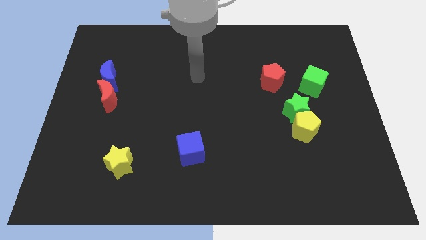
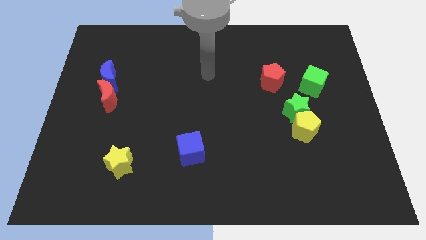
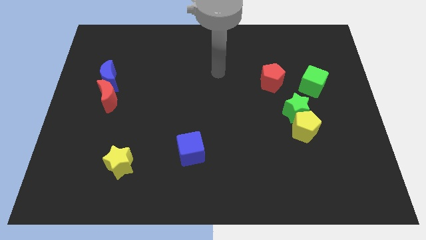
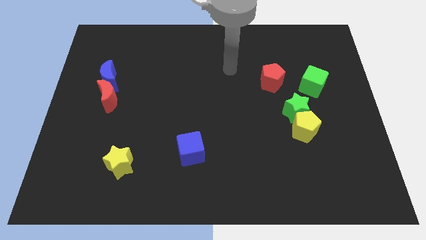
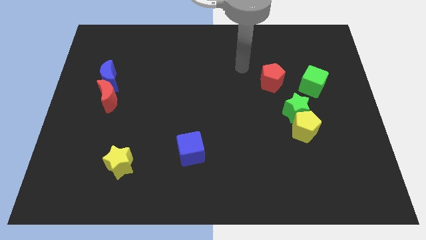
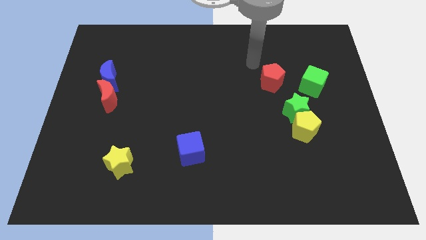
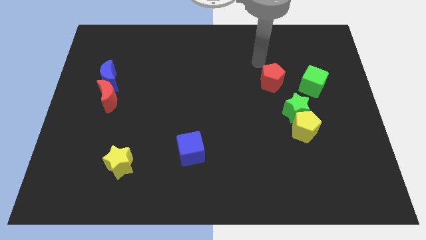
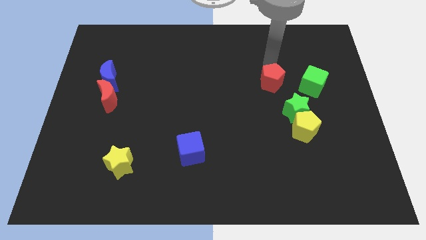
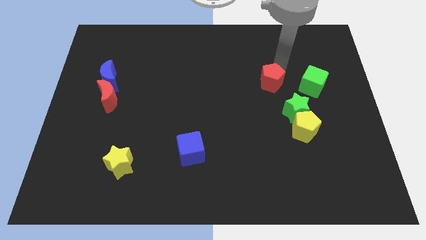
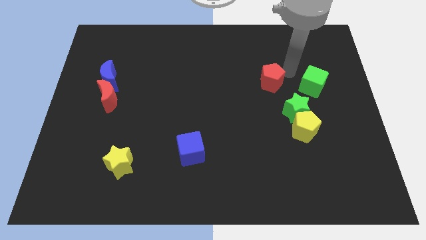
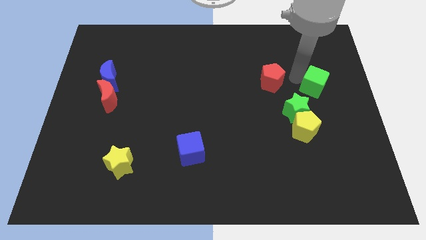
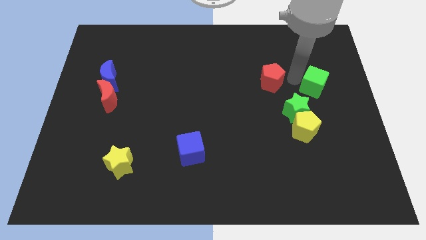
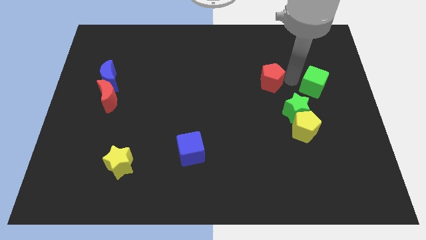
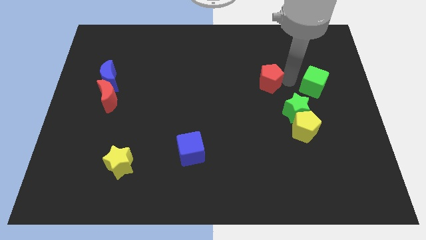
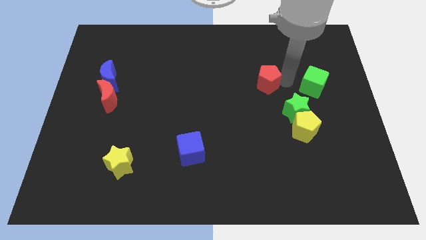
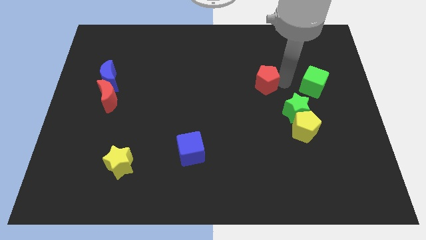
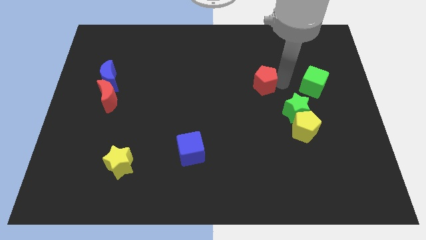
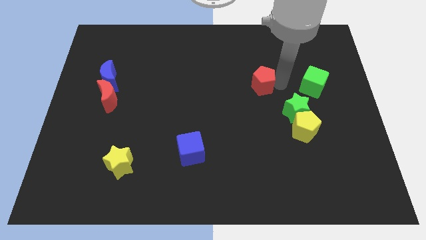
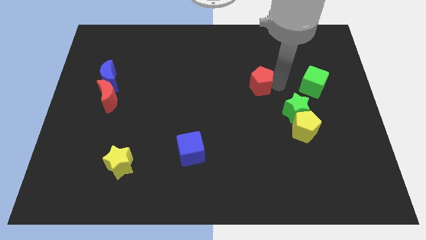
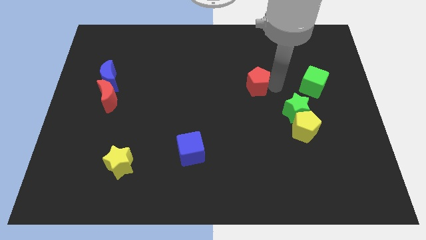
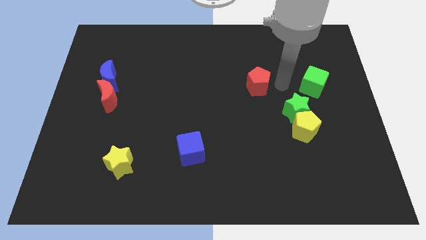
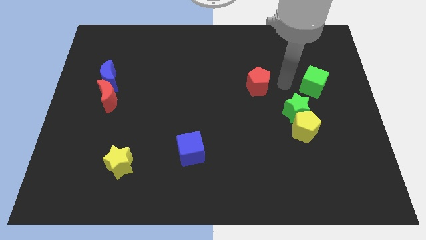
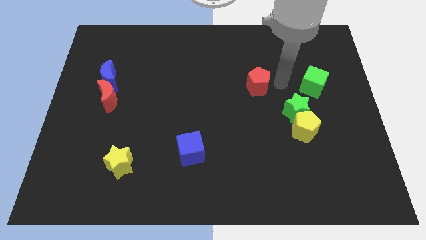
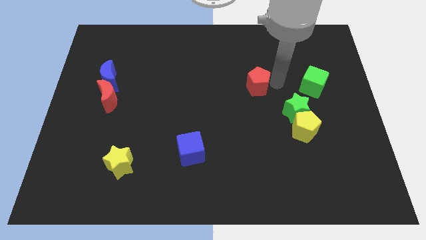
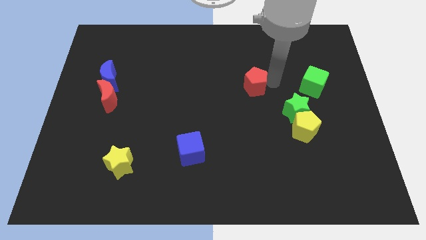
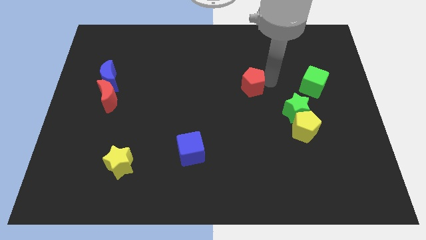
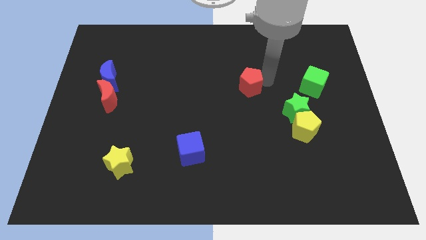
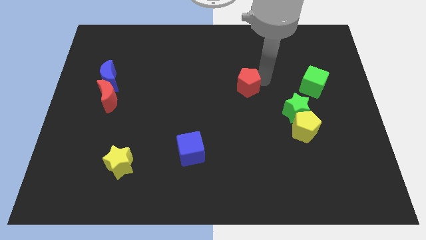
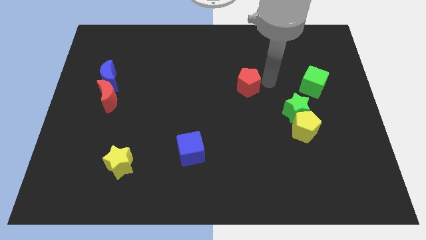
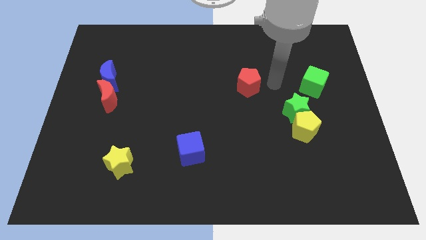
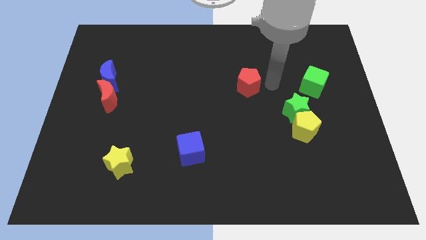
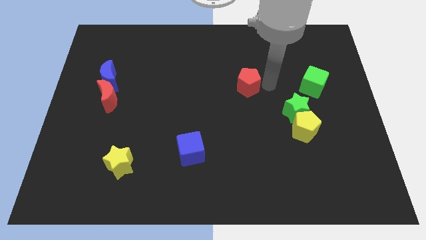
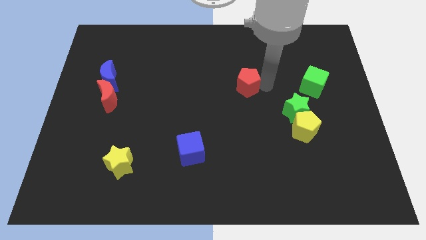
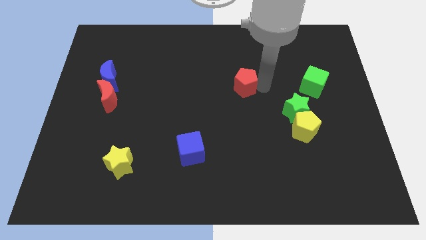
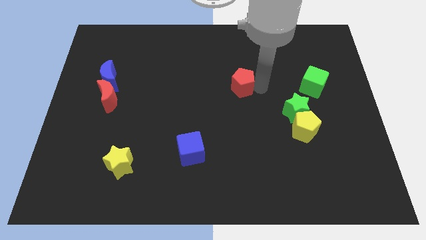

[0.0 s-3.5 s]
slightly push the red pentagon to the left

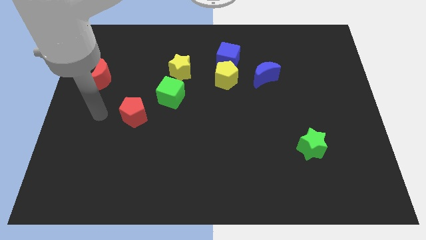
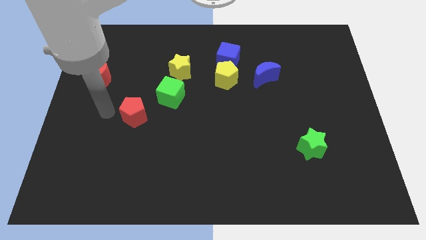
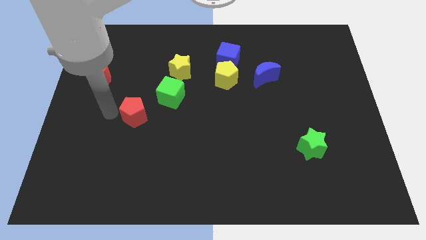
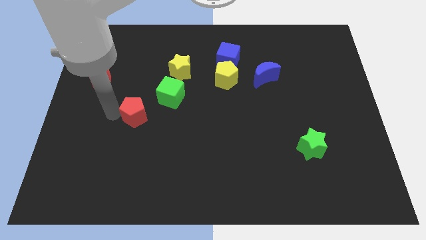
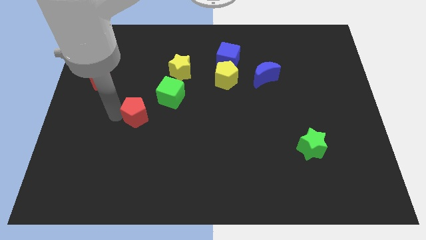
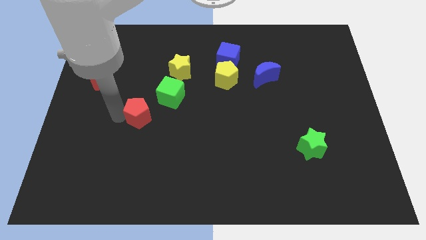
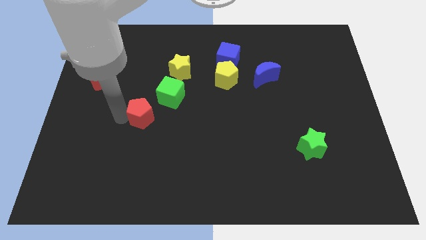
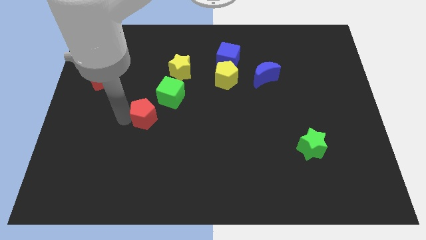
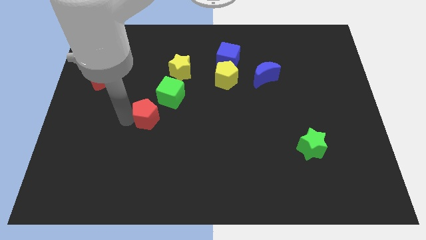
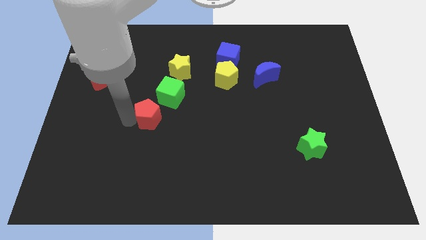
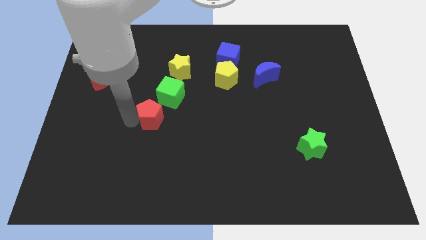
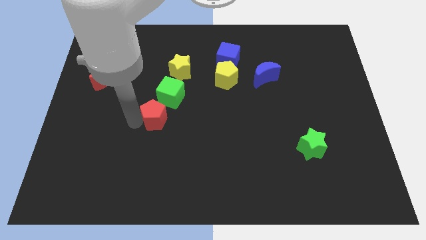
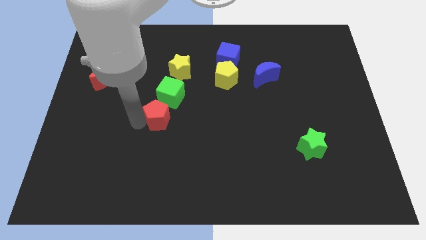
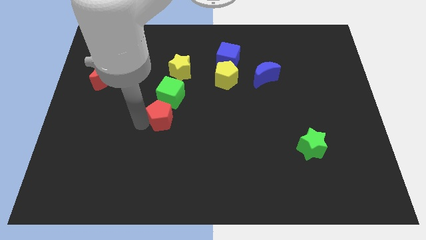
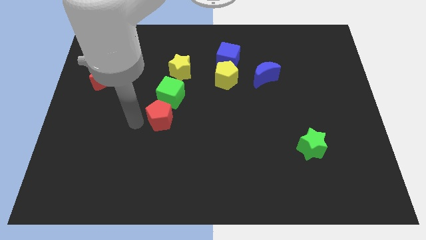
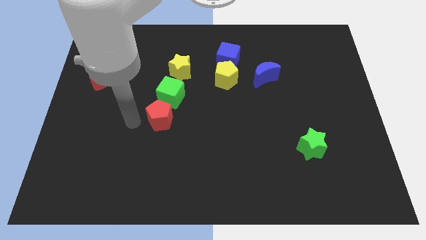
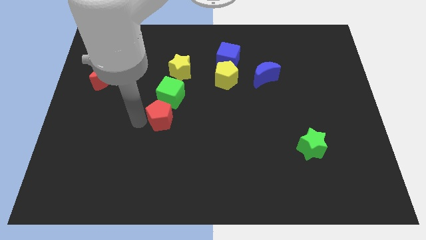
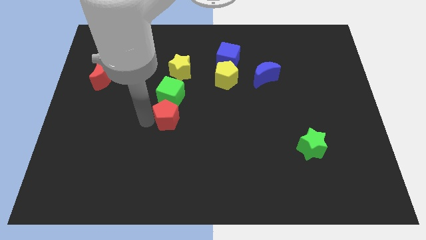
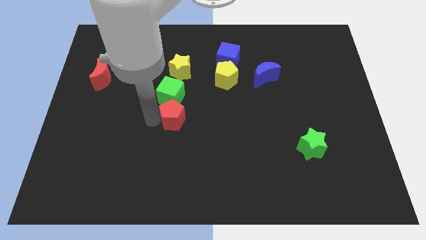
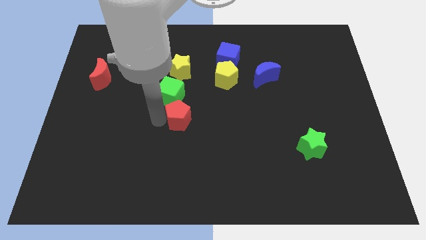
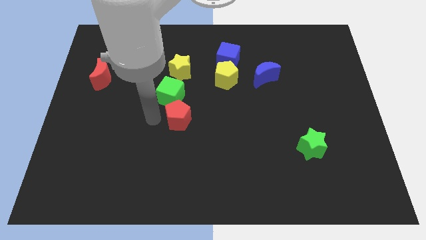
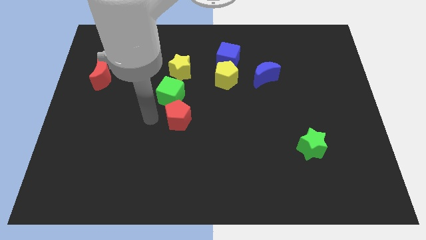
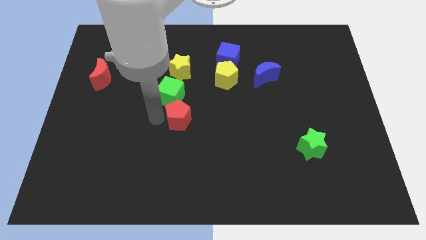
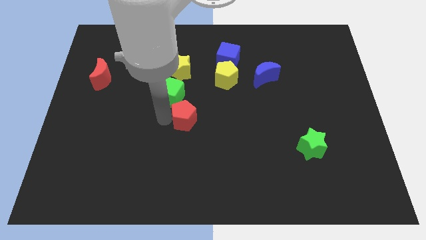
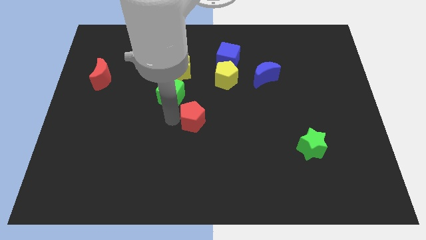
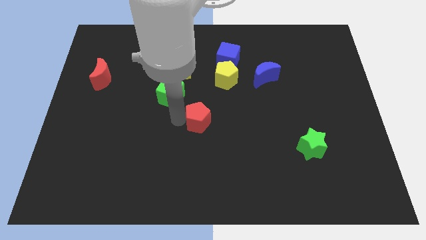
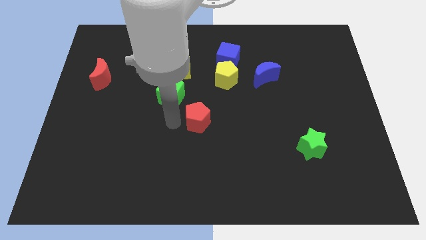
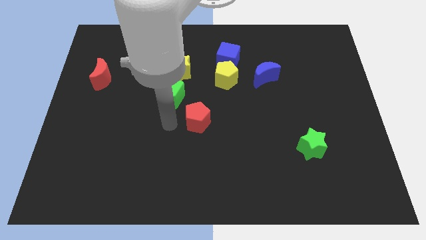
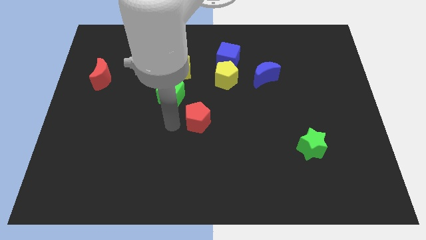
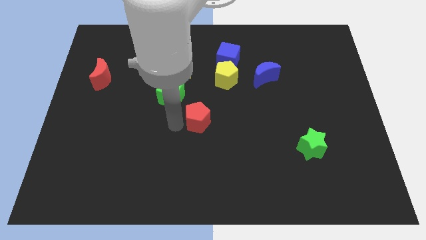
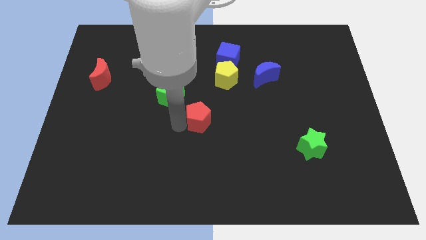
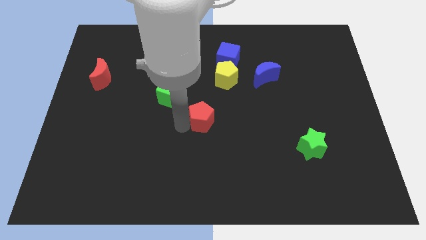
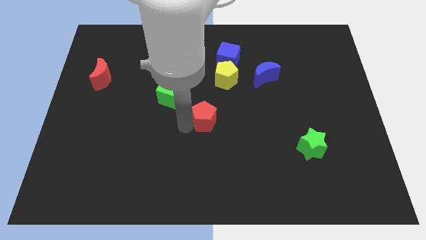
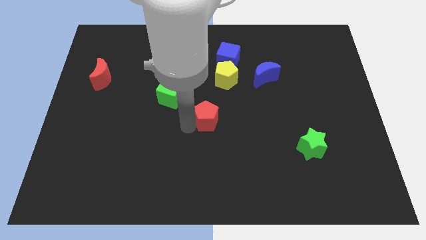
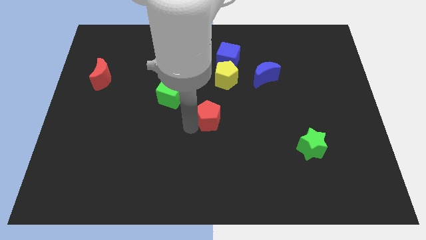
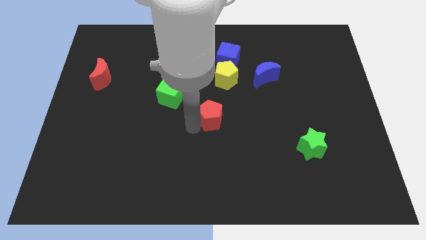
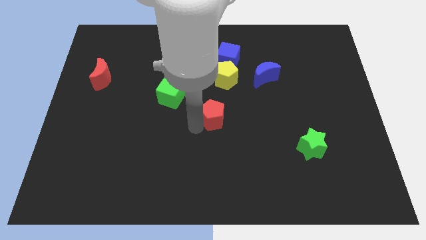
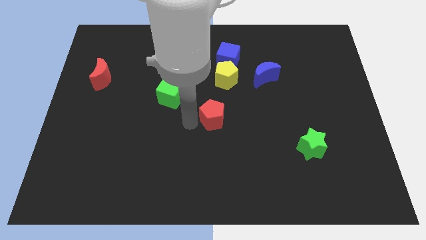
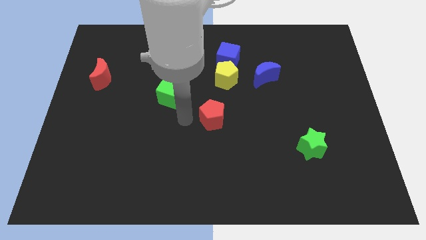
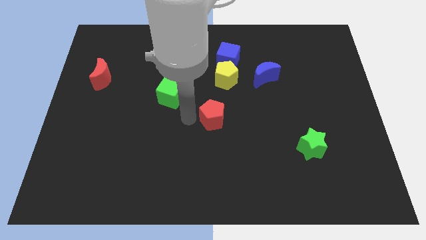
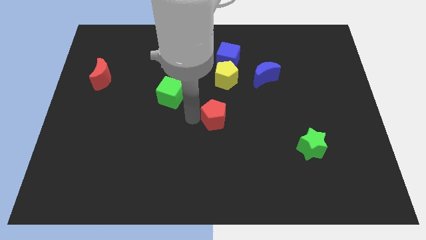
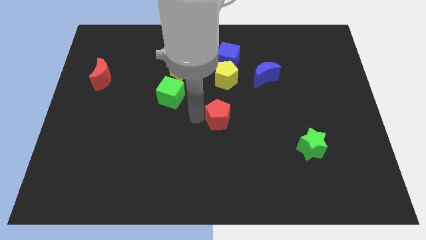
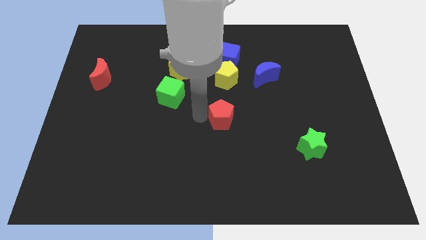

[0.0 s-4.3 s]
move the red pentagon to the right

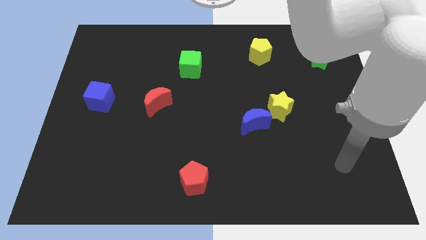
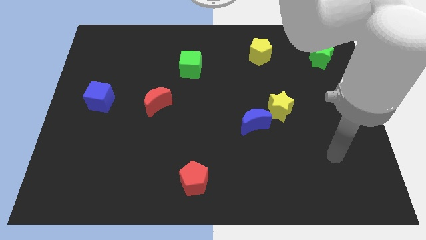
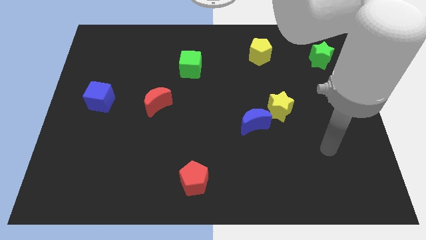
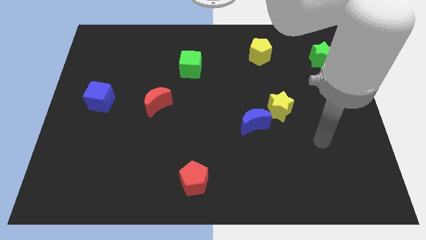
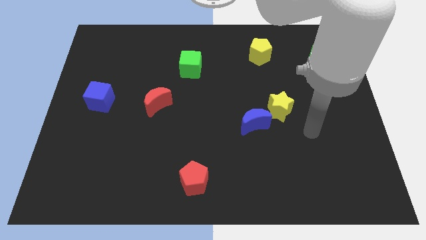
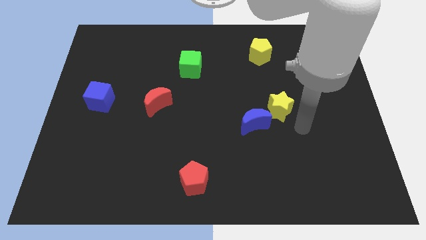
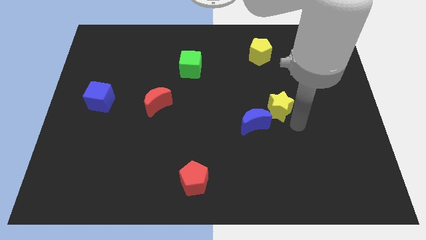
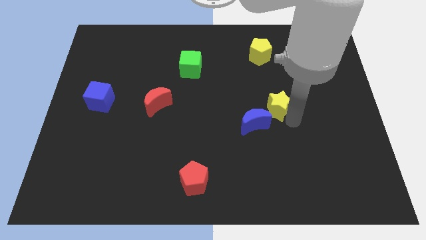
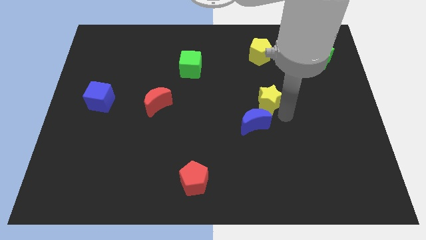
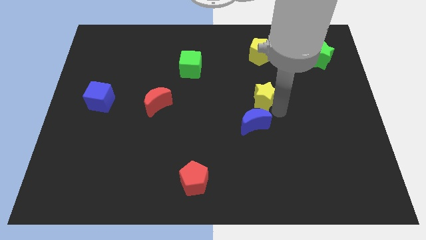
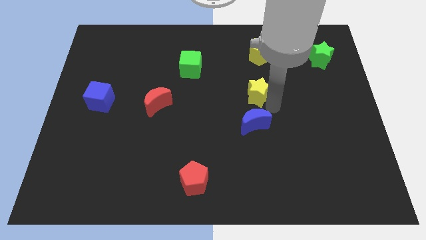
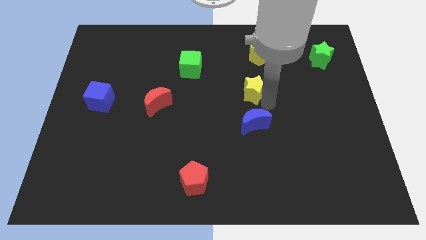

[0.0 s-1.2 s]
slightly push the yellow star up and left diagonally
